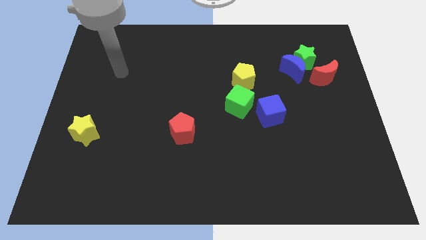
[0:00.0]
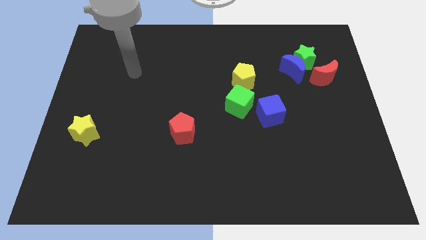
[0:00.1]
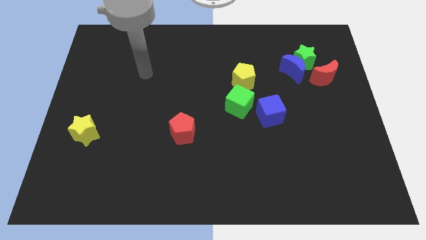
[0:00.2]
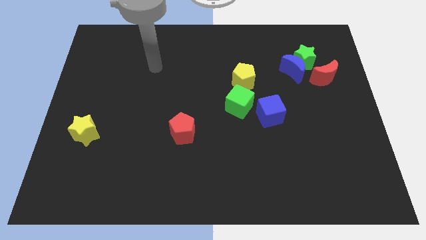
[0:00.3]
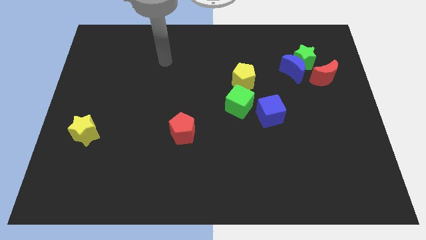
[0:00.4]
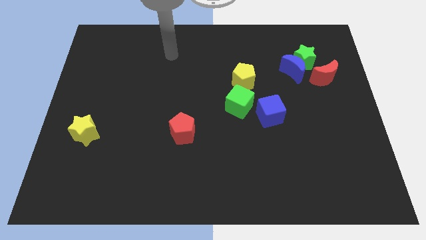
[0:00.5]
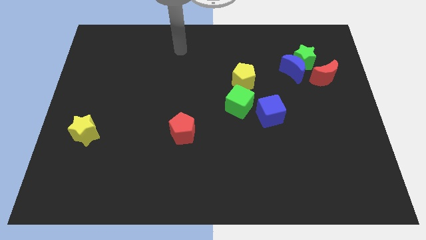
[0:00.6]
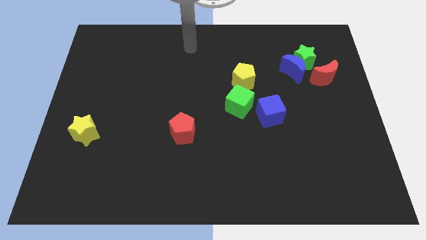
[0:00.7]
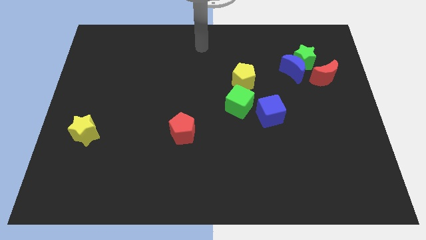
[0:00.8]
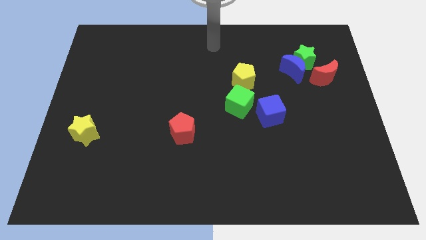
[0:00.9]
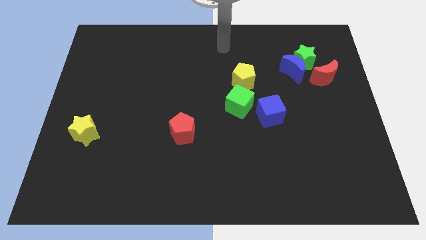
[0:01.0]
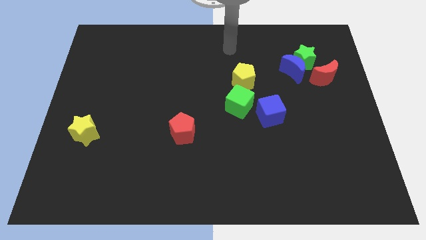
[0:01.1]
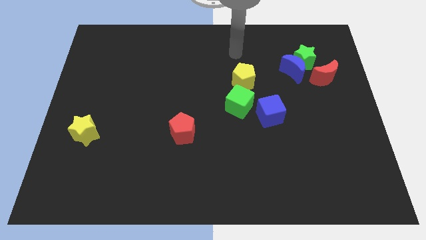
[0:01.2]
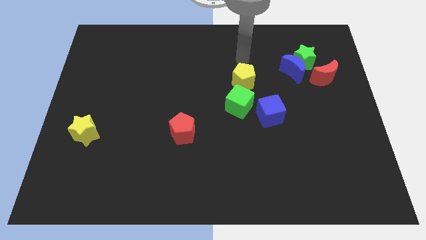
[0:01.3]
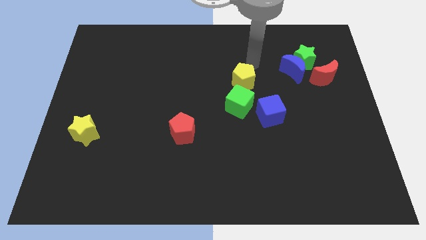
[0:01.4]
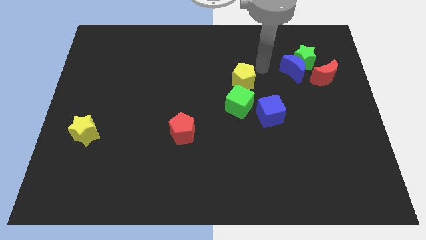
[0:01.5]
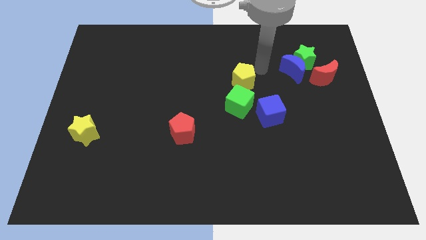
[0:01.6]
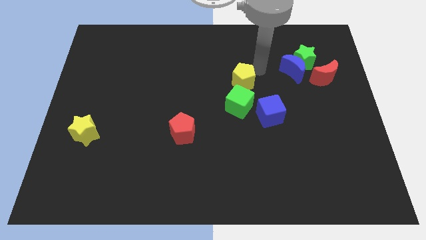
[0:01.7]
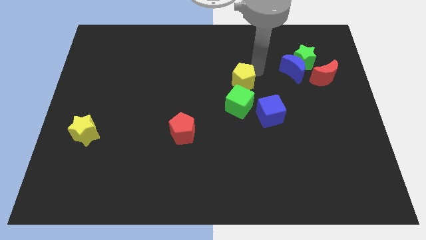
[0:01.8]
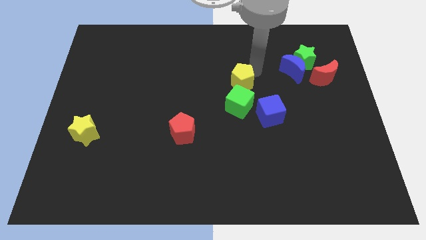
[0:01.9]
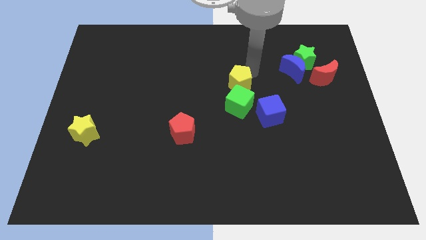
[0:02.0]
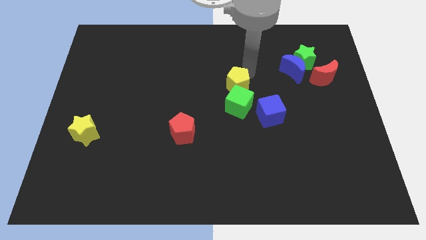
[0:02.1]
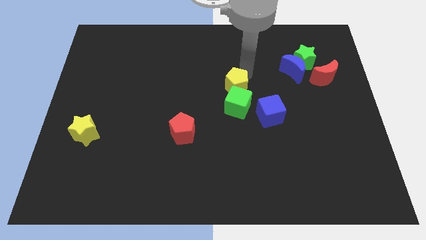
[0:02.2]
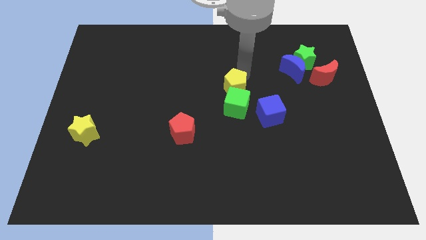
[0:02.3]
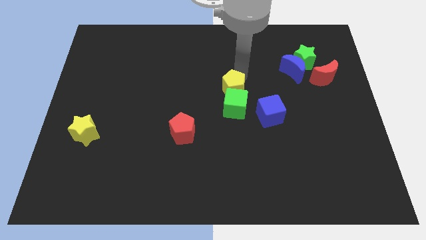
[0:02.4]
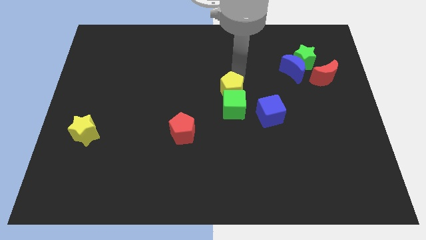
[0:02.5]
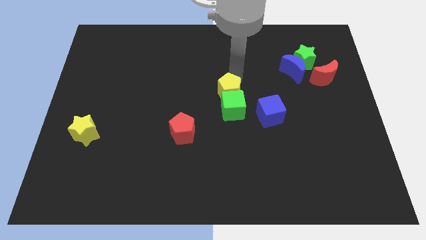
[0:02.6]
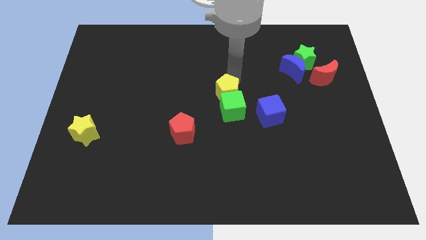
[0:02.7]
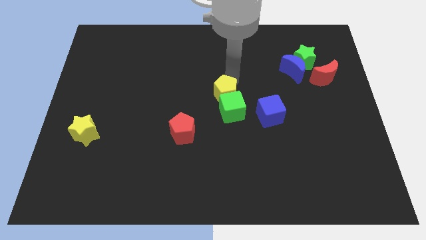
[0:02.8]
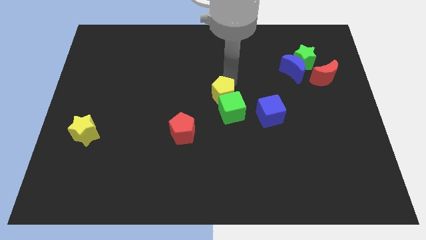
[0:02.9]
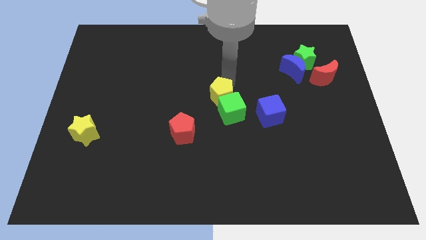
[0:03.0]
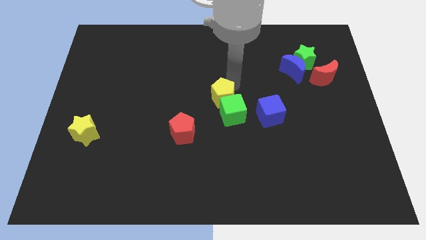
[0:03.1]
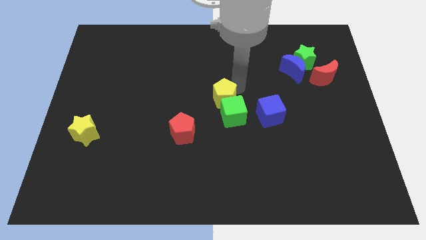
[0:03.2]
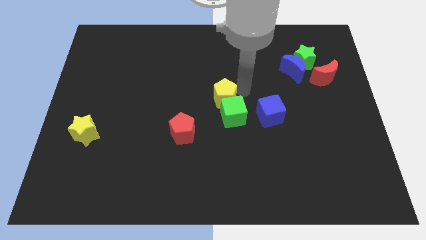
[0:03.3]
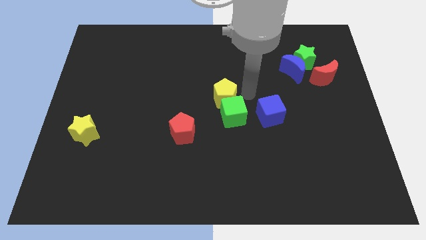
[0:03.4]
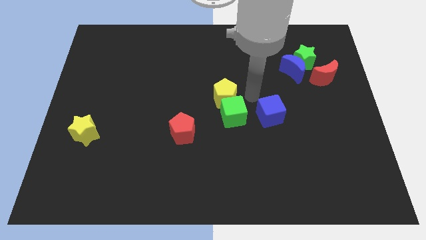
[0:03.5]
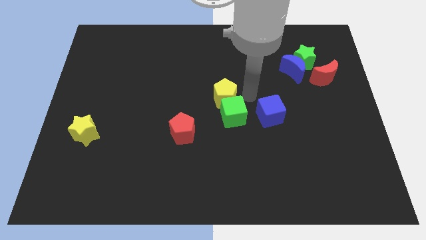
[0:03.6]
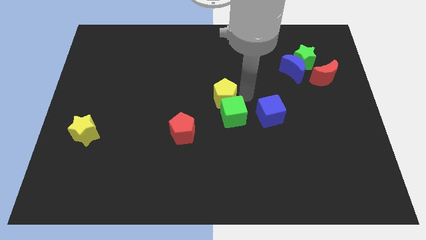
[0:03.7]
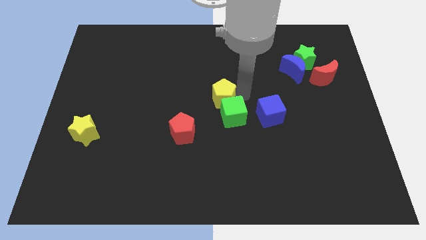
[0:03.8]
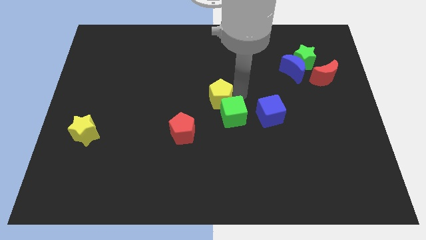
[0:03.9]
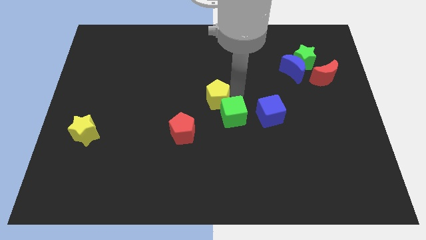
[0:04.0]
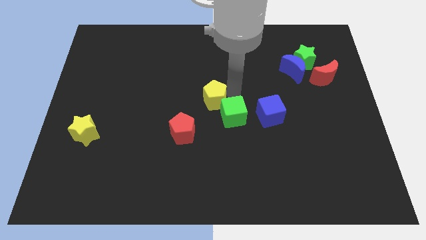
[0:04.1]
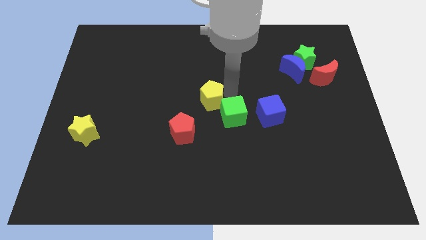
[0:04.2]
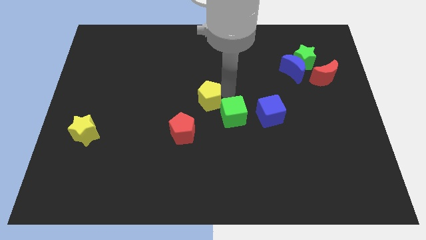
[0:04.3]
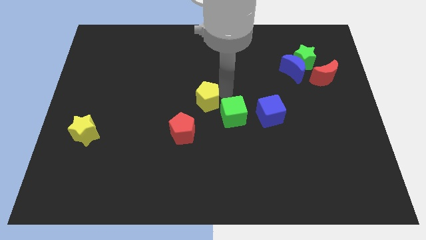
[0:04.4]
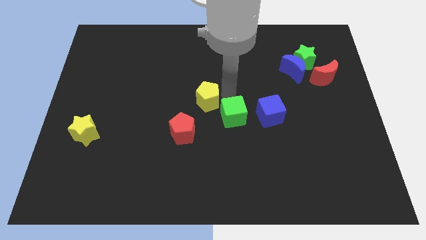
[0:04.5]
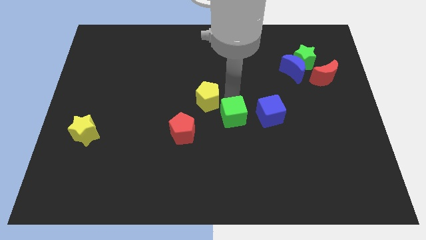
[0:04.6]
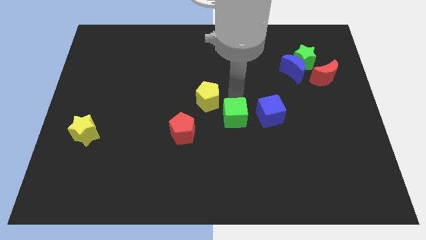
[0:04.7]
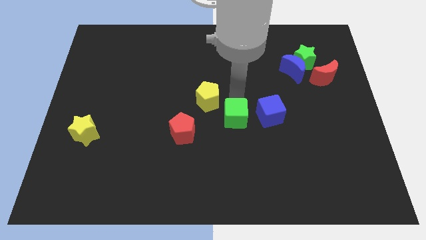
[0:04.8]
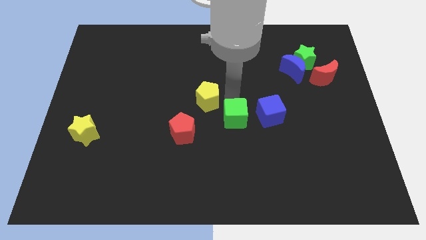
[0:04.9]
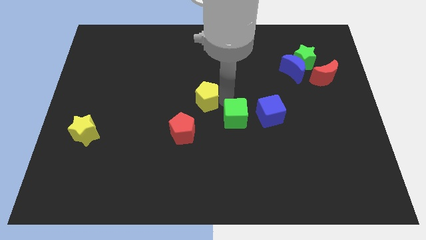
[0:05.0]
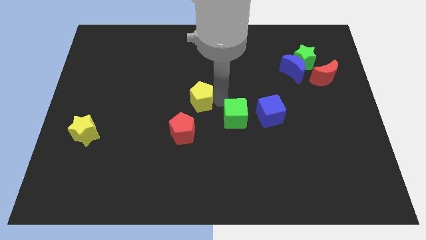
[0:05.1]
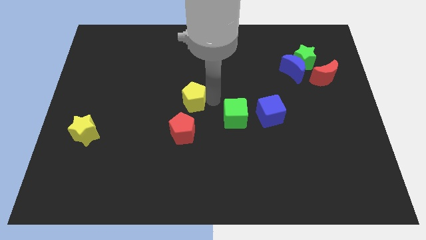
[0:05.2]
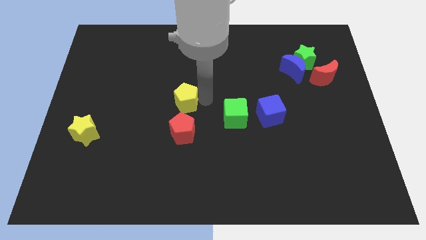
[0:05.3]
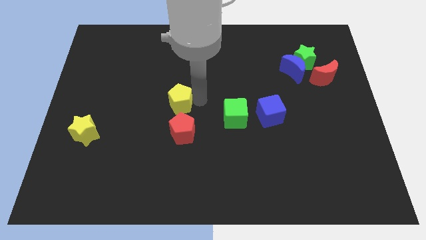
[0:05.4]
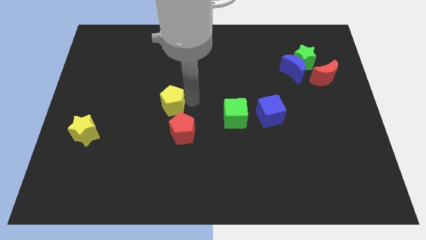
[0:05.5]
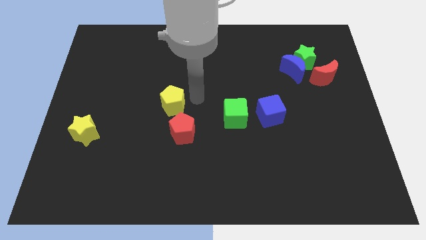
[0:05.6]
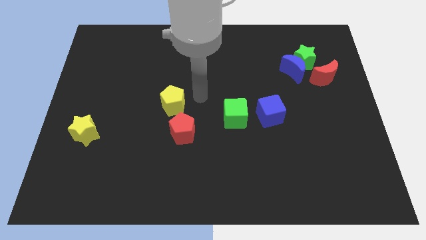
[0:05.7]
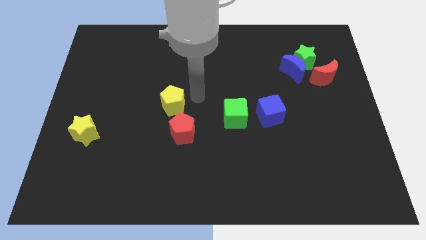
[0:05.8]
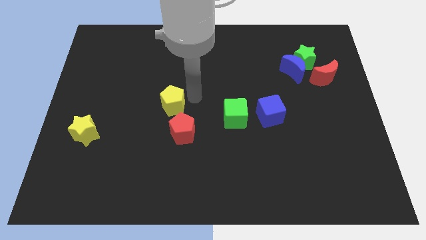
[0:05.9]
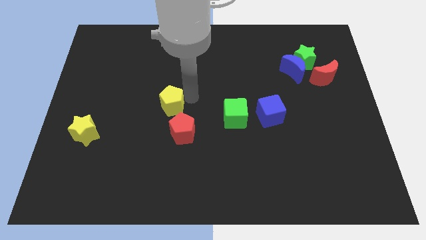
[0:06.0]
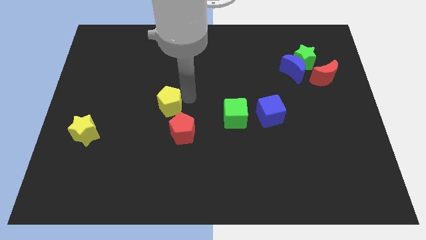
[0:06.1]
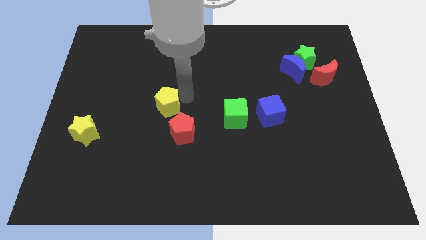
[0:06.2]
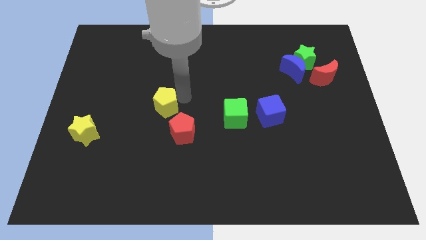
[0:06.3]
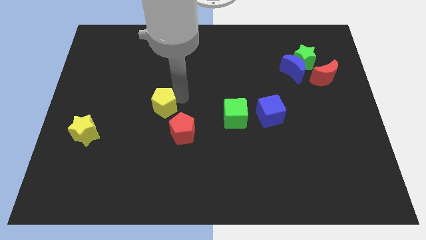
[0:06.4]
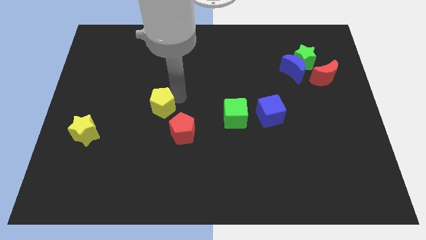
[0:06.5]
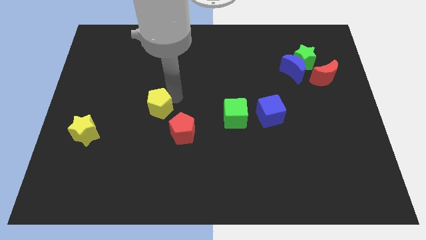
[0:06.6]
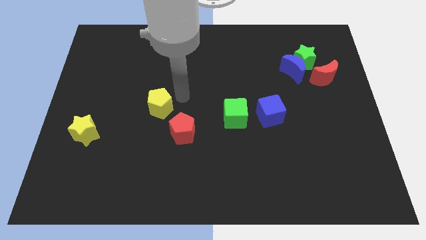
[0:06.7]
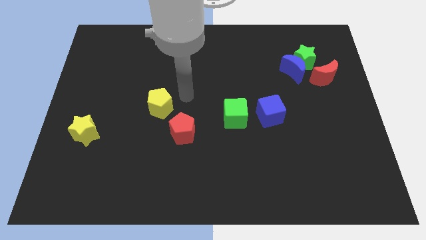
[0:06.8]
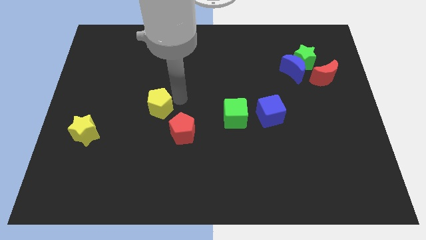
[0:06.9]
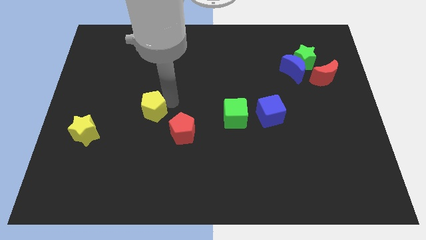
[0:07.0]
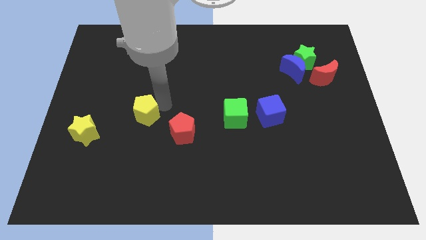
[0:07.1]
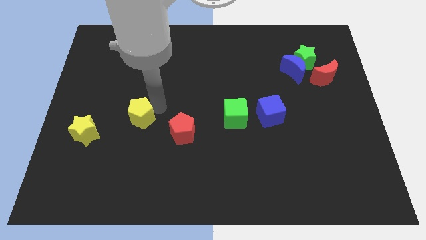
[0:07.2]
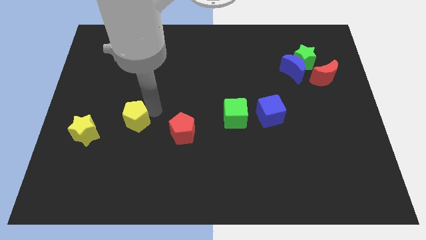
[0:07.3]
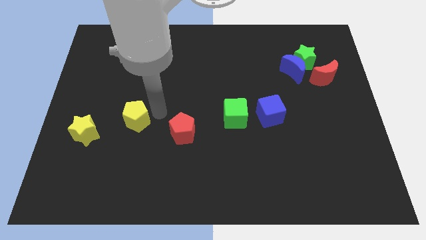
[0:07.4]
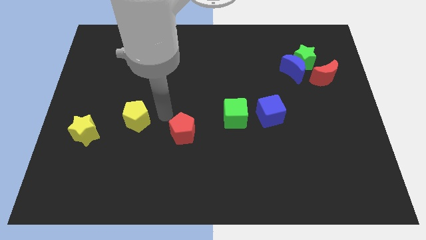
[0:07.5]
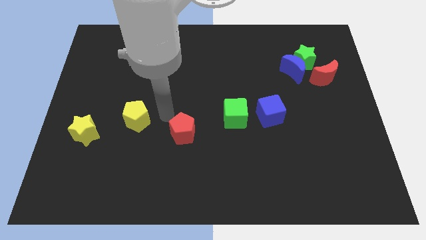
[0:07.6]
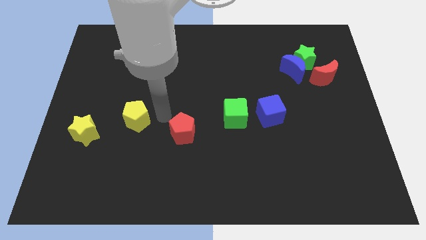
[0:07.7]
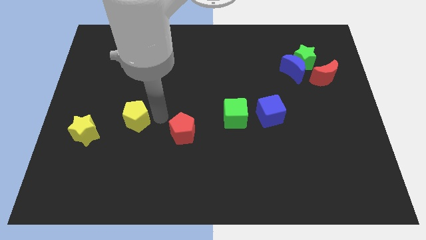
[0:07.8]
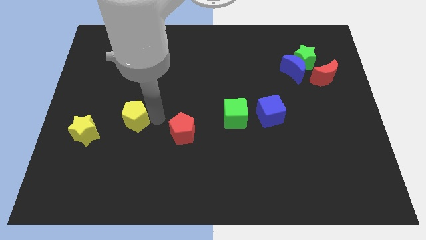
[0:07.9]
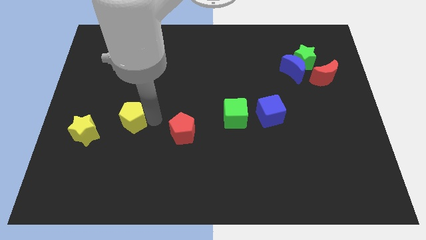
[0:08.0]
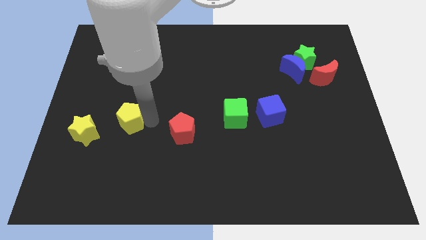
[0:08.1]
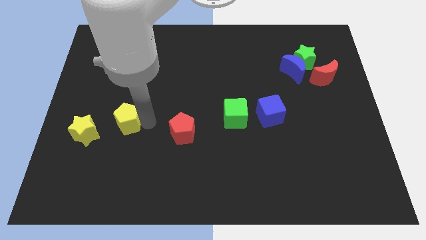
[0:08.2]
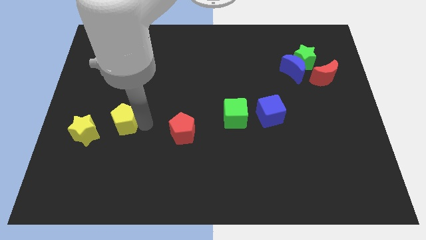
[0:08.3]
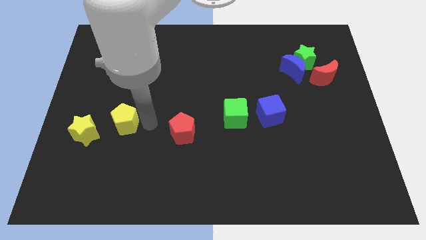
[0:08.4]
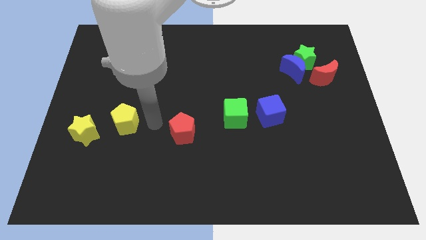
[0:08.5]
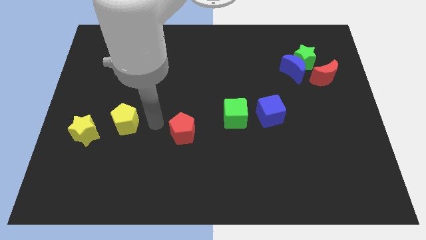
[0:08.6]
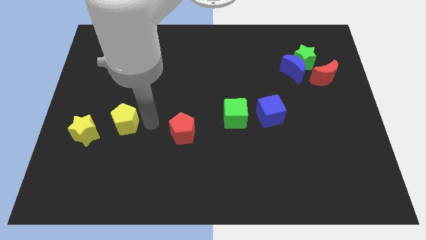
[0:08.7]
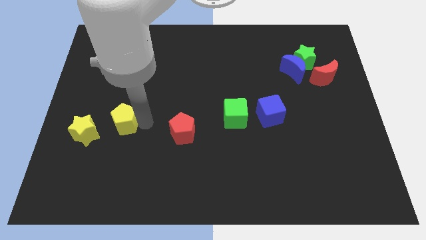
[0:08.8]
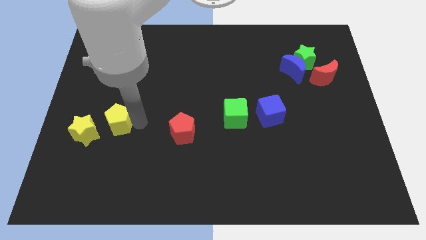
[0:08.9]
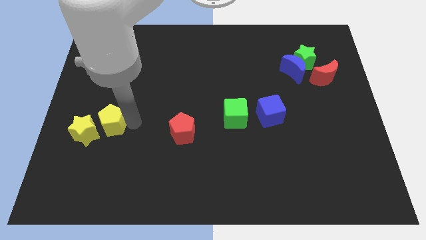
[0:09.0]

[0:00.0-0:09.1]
slide the yellow pentagon towards the yellow star
